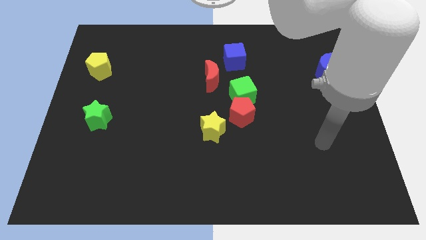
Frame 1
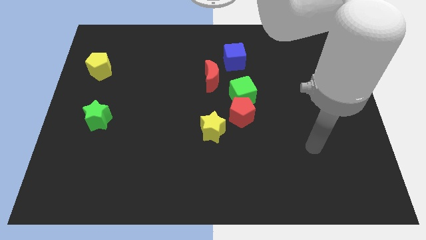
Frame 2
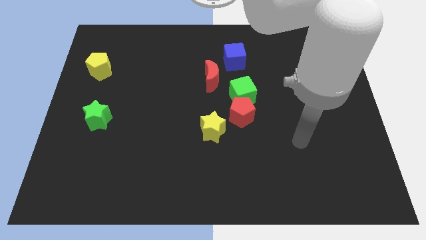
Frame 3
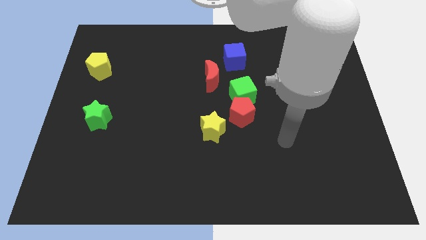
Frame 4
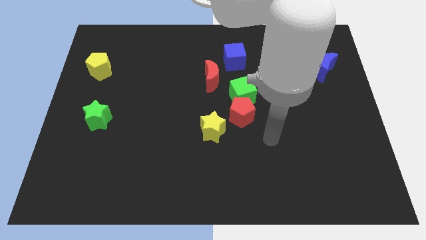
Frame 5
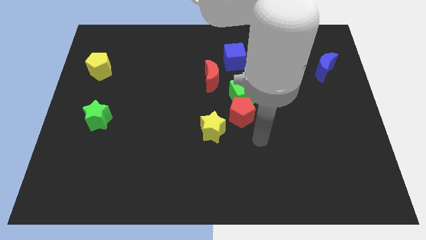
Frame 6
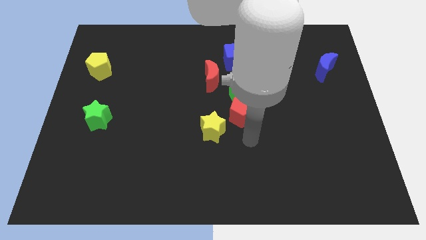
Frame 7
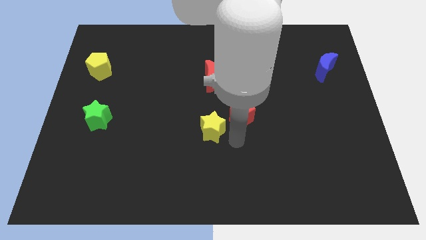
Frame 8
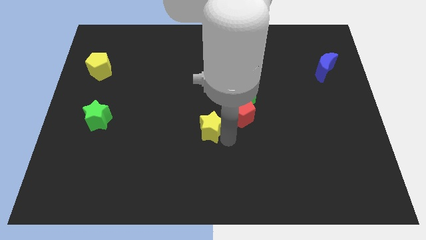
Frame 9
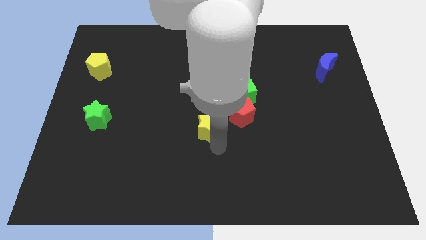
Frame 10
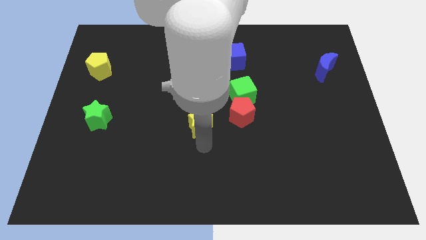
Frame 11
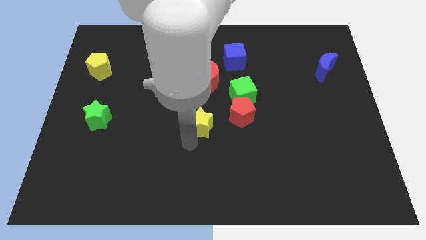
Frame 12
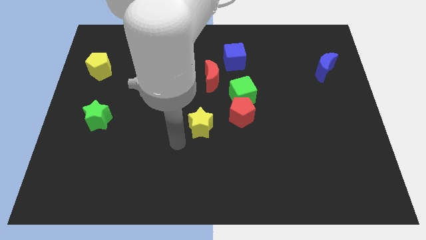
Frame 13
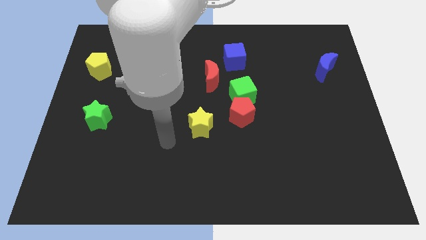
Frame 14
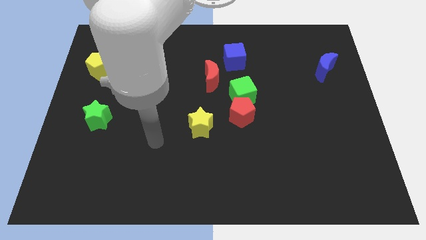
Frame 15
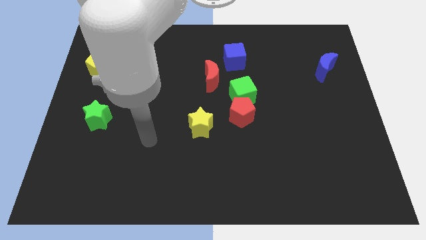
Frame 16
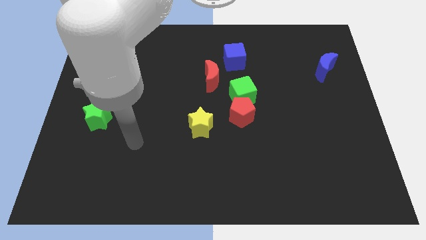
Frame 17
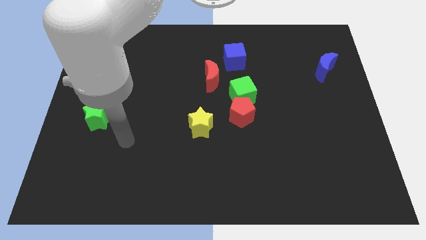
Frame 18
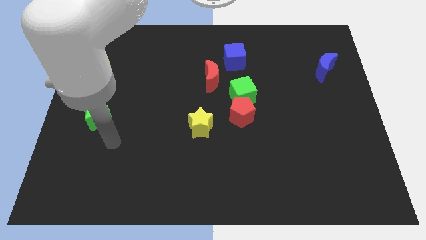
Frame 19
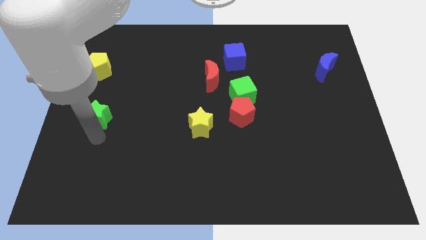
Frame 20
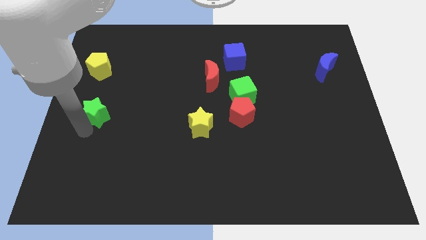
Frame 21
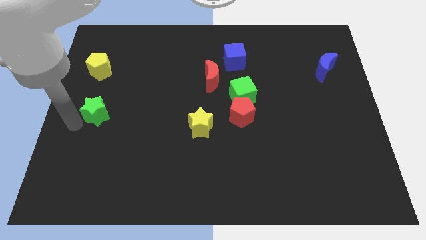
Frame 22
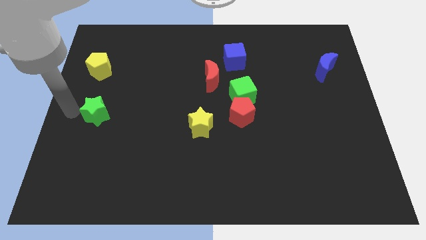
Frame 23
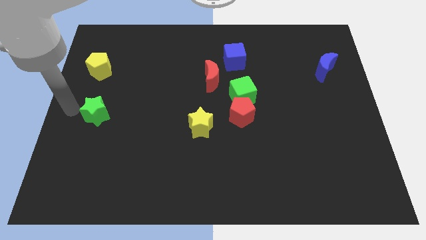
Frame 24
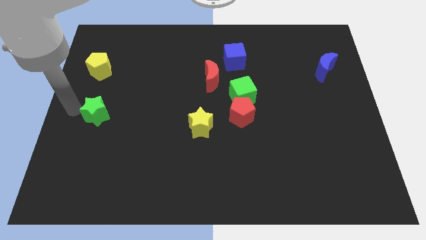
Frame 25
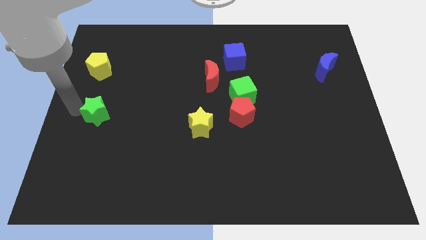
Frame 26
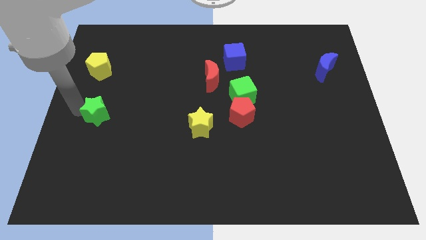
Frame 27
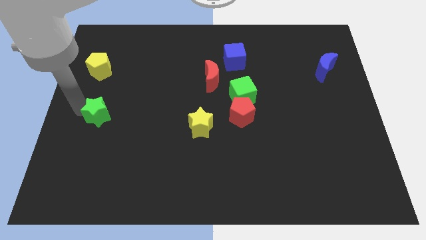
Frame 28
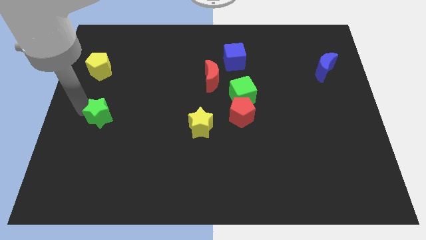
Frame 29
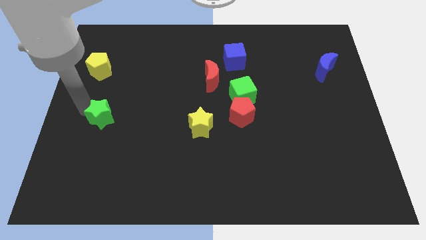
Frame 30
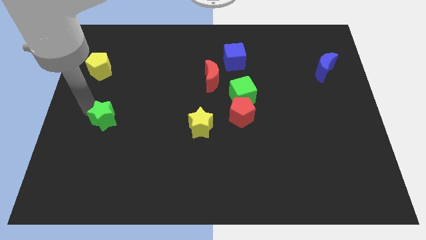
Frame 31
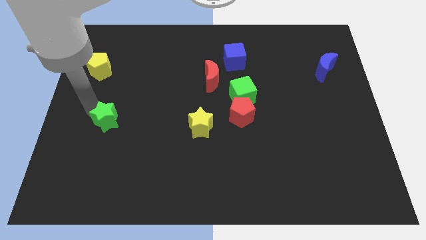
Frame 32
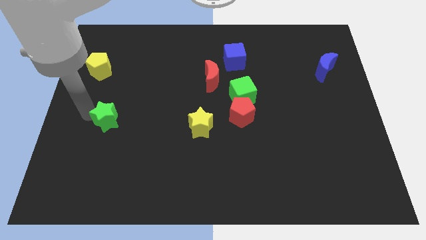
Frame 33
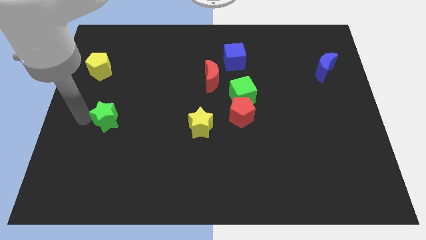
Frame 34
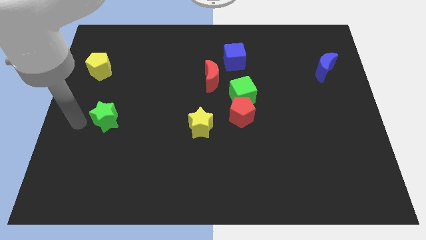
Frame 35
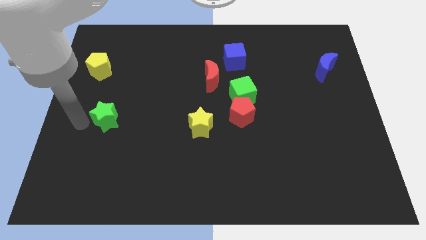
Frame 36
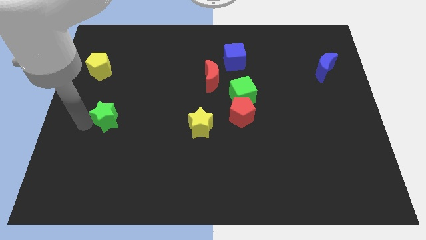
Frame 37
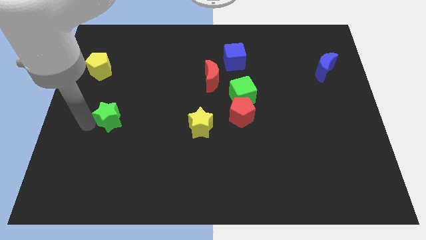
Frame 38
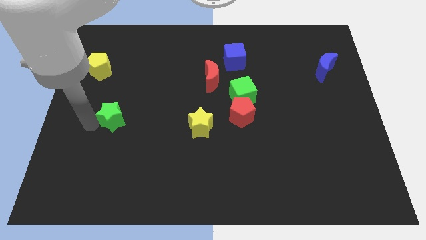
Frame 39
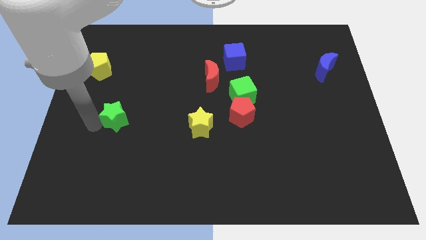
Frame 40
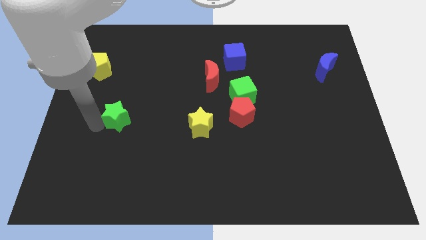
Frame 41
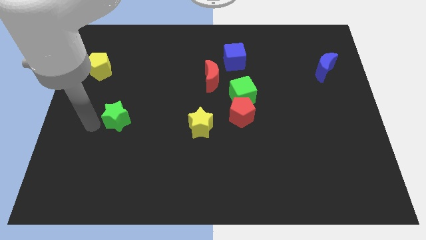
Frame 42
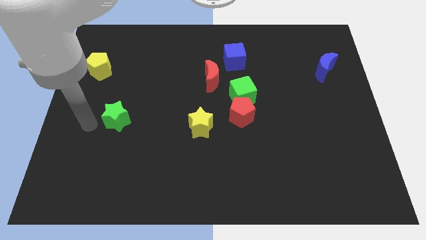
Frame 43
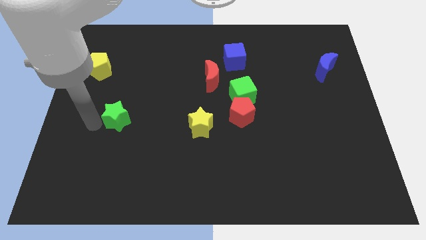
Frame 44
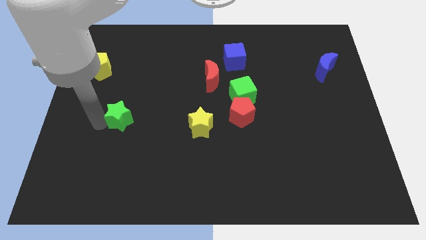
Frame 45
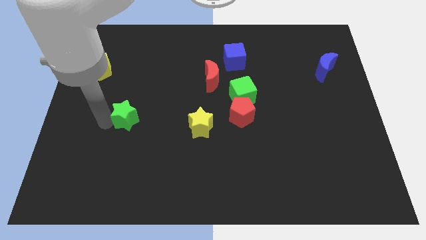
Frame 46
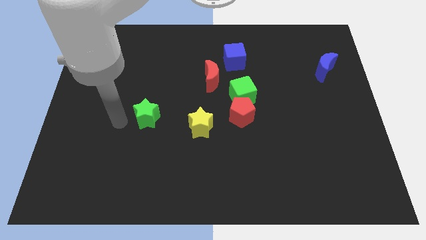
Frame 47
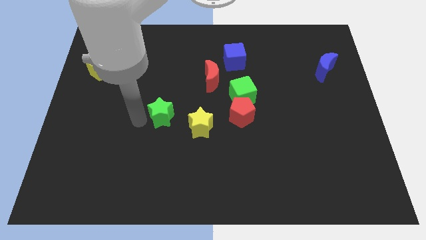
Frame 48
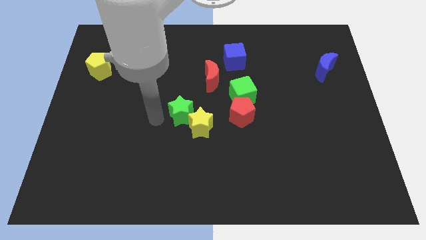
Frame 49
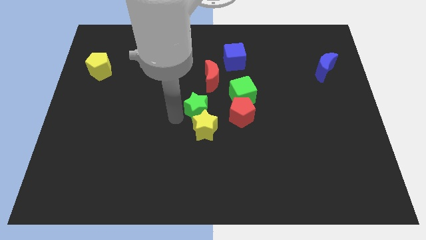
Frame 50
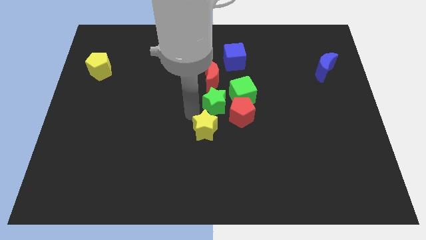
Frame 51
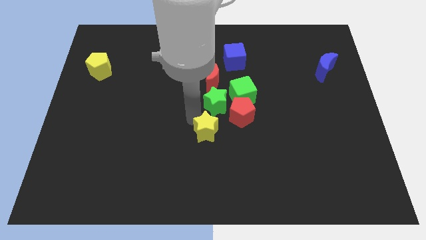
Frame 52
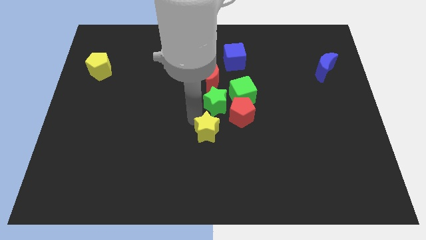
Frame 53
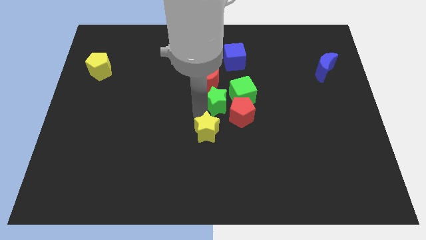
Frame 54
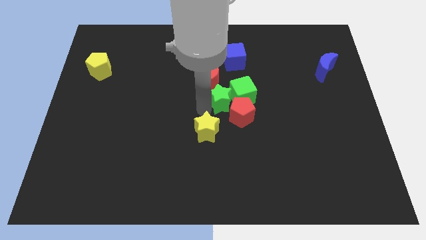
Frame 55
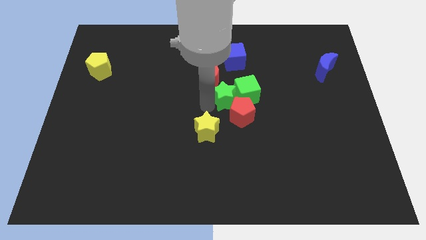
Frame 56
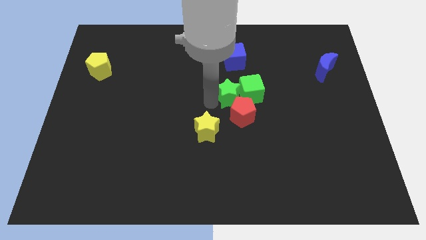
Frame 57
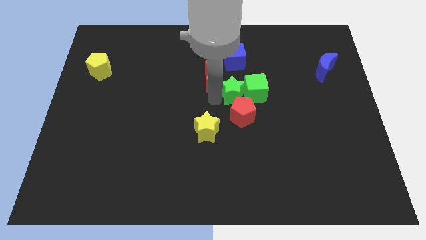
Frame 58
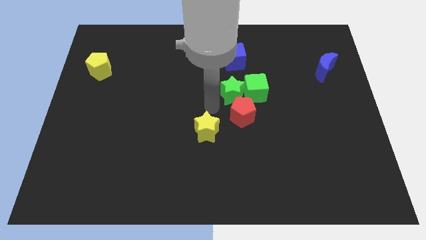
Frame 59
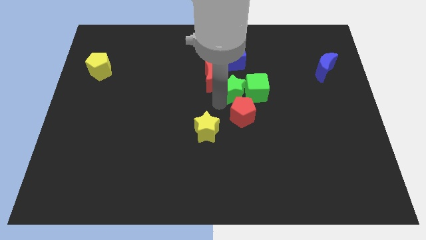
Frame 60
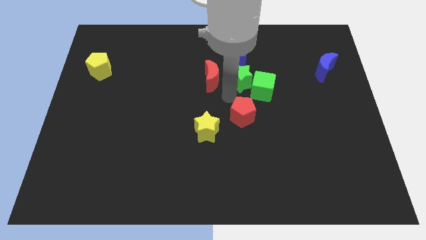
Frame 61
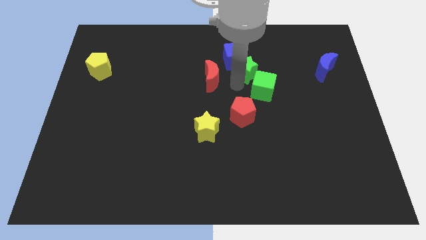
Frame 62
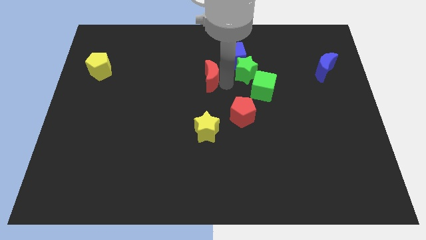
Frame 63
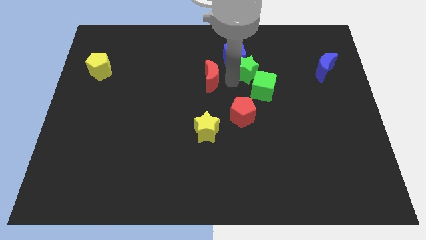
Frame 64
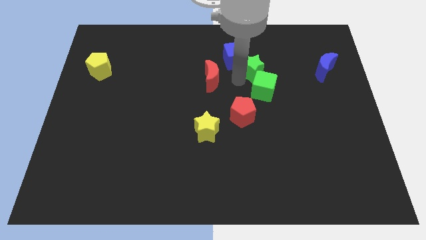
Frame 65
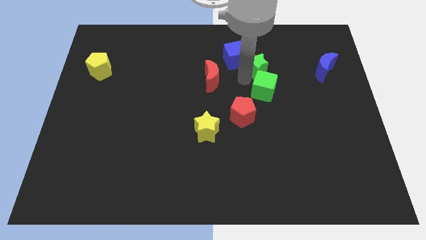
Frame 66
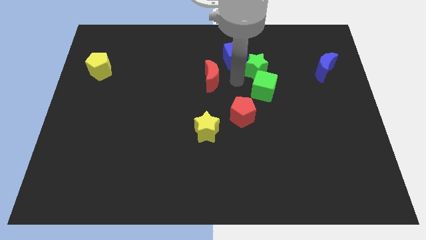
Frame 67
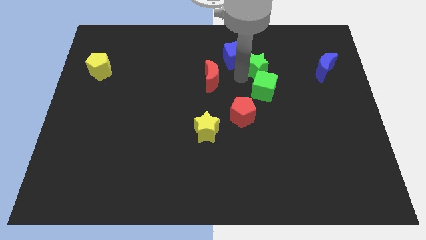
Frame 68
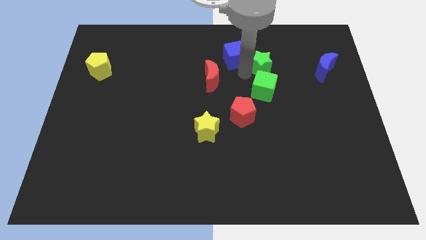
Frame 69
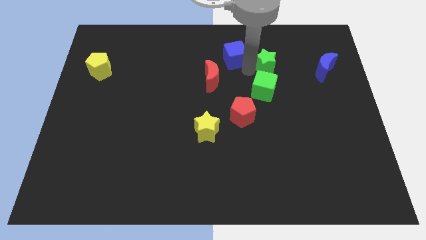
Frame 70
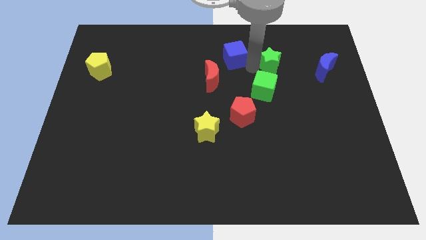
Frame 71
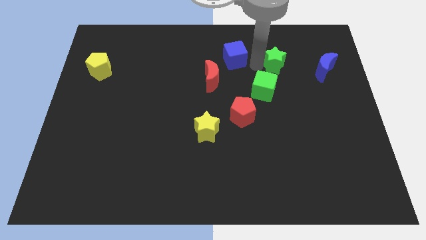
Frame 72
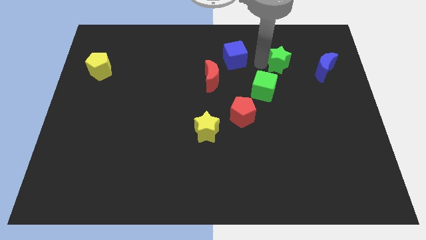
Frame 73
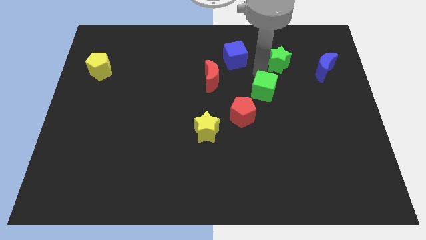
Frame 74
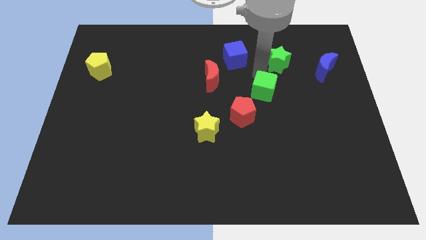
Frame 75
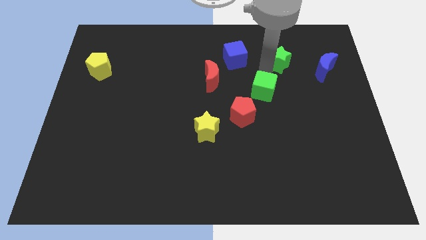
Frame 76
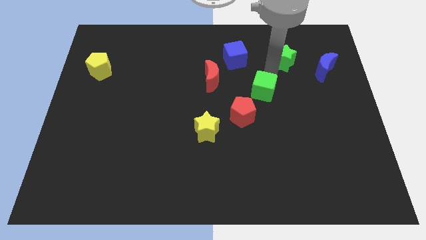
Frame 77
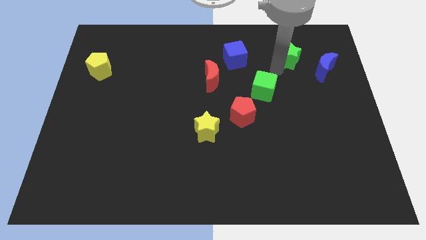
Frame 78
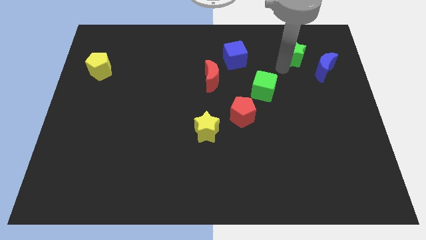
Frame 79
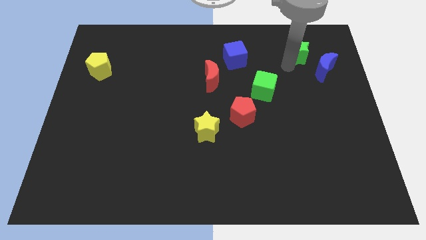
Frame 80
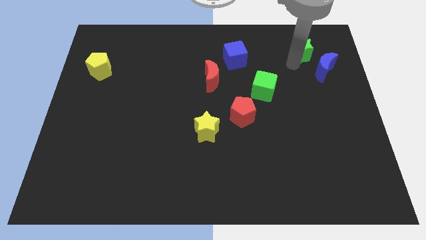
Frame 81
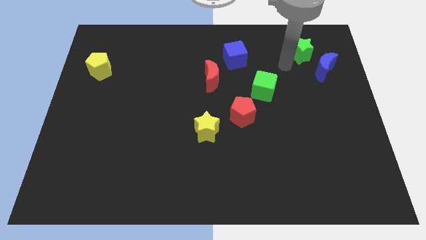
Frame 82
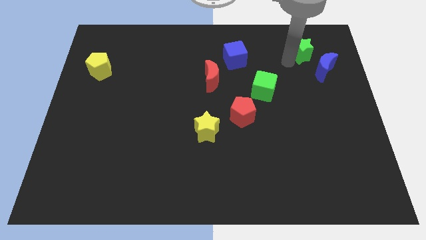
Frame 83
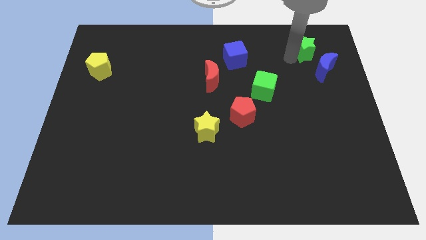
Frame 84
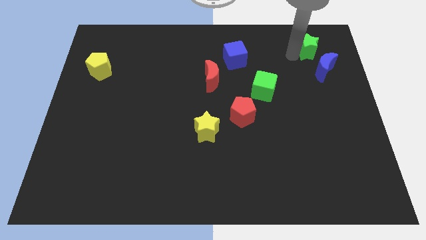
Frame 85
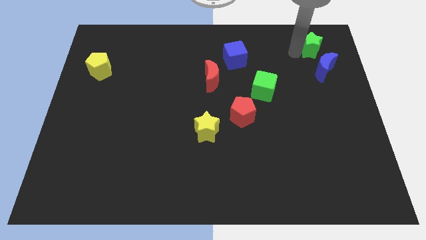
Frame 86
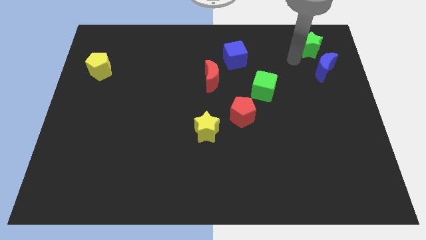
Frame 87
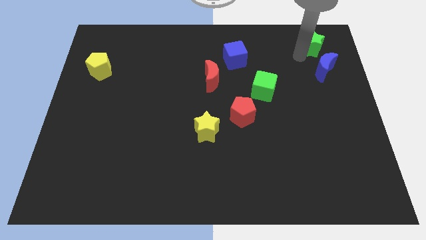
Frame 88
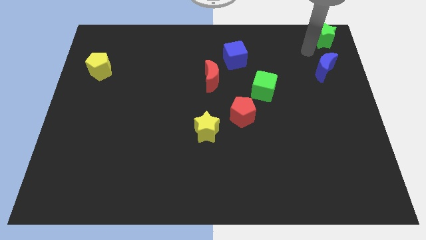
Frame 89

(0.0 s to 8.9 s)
put the green star to the upper right corner
